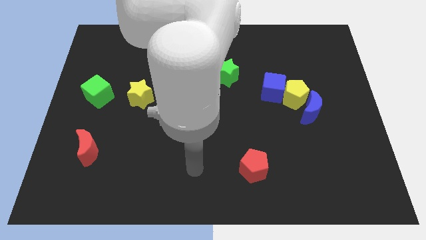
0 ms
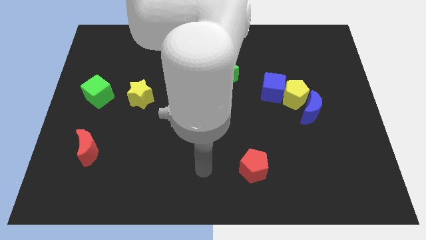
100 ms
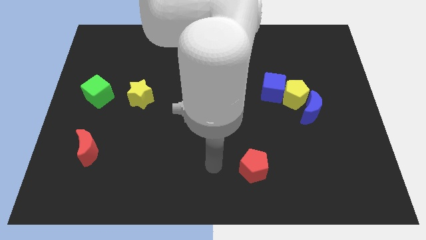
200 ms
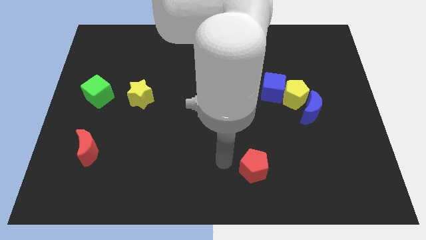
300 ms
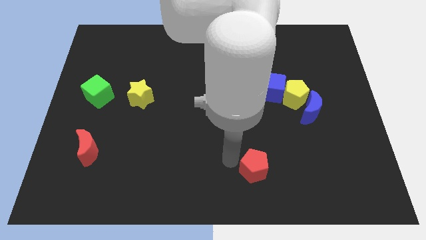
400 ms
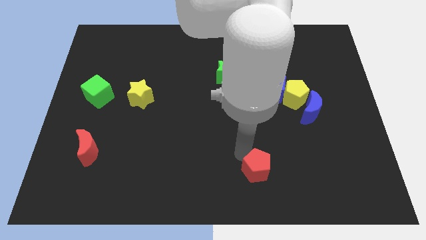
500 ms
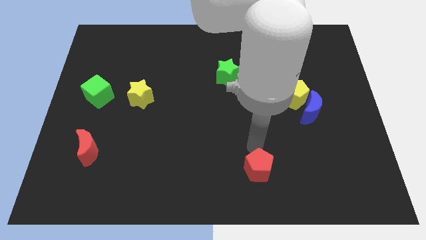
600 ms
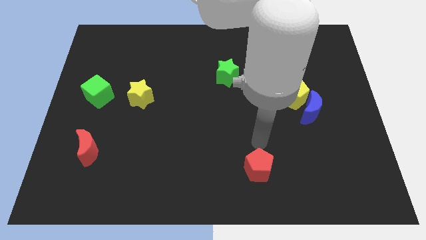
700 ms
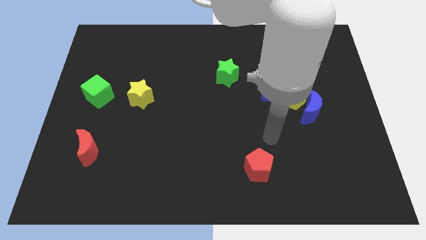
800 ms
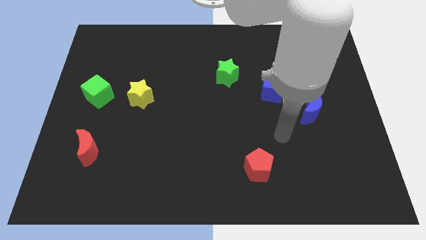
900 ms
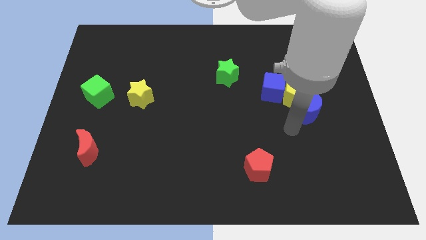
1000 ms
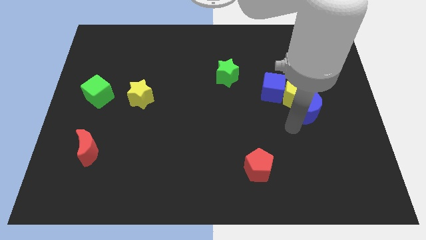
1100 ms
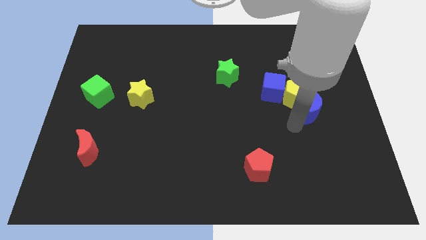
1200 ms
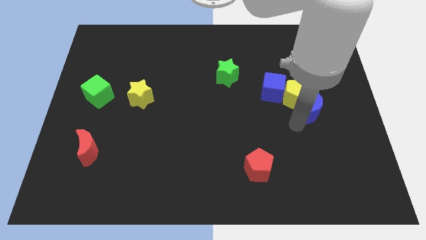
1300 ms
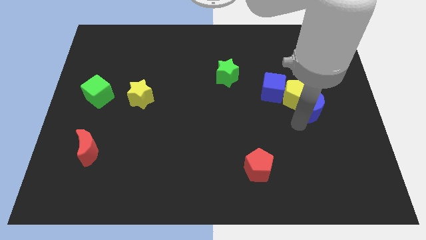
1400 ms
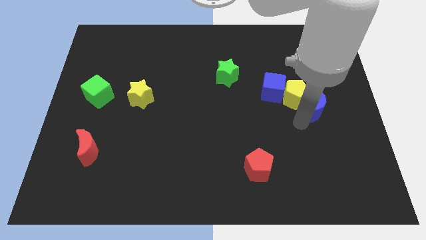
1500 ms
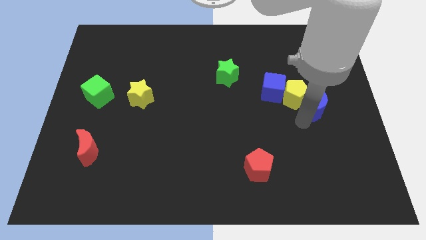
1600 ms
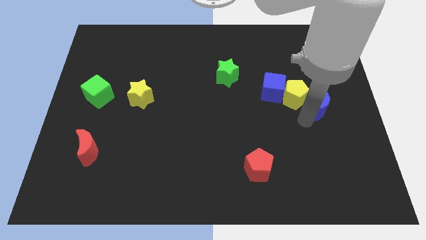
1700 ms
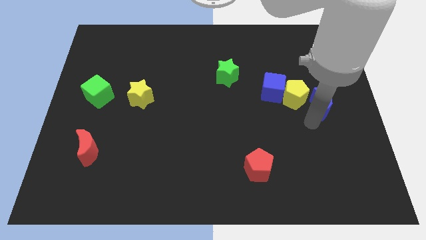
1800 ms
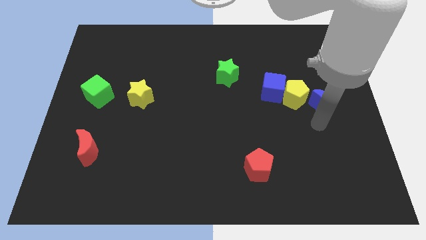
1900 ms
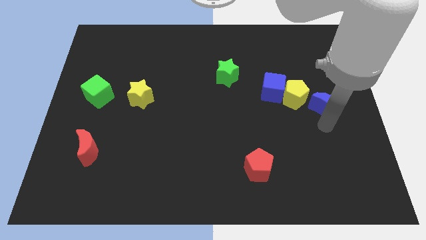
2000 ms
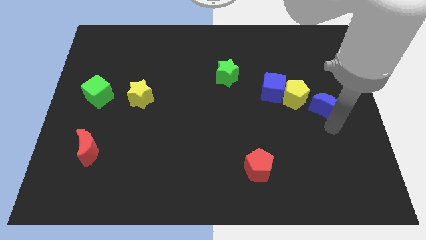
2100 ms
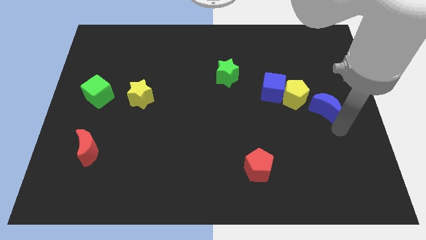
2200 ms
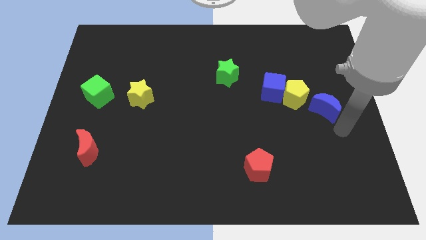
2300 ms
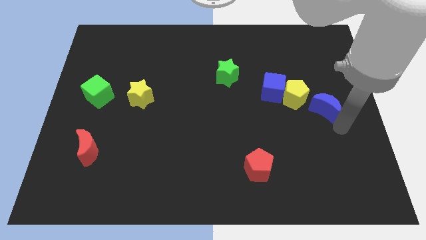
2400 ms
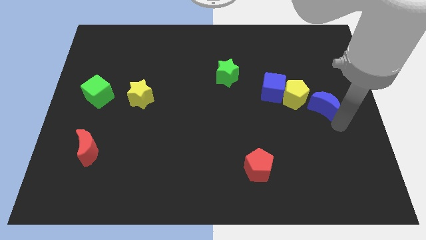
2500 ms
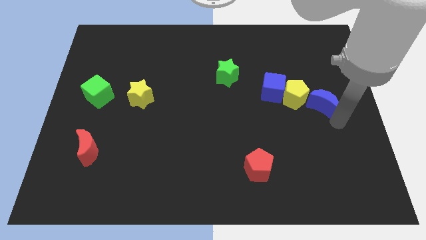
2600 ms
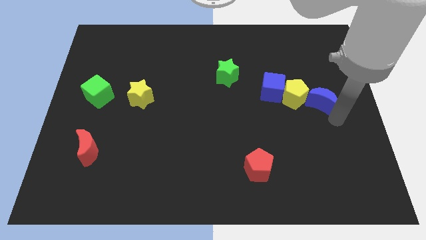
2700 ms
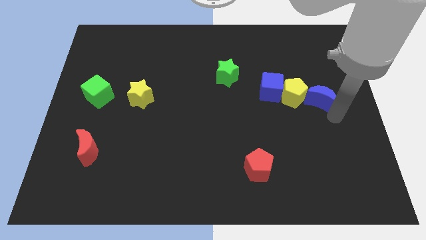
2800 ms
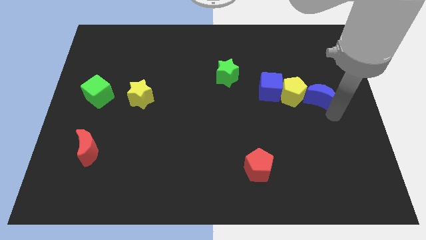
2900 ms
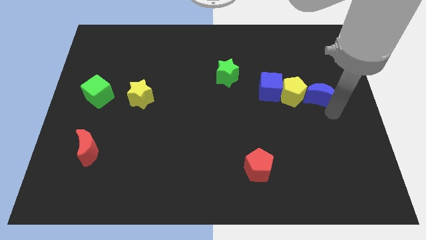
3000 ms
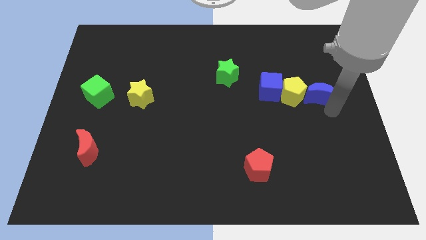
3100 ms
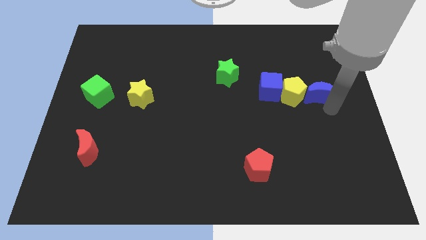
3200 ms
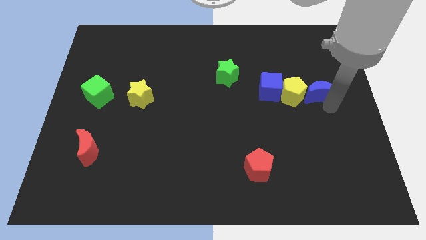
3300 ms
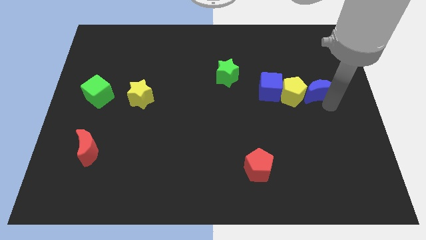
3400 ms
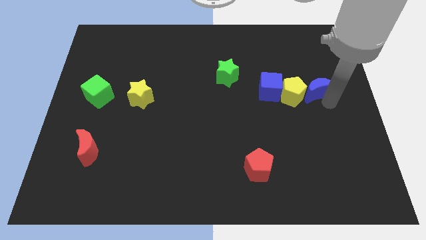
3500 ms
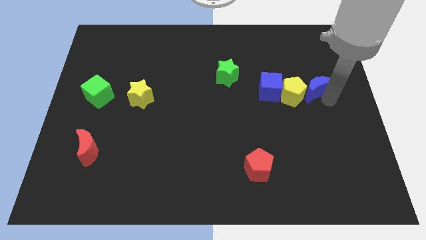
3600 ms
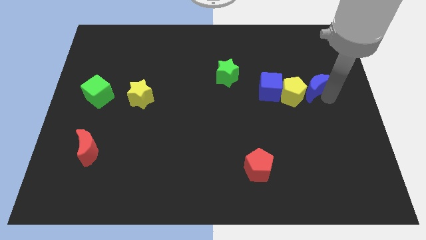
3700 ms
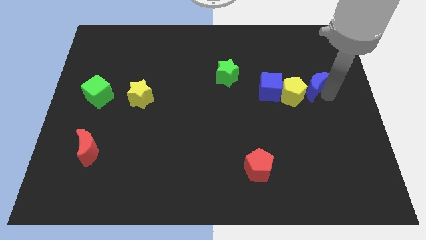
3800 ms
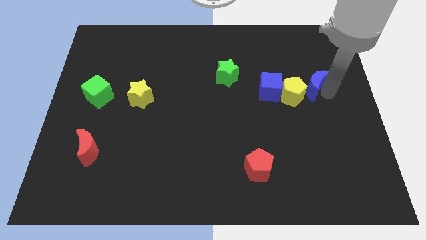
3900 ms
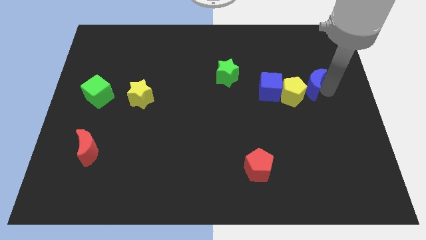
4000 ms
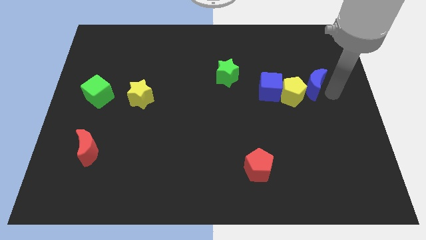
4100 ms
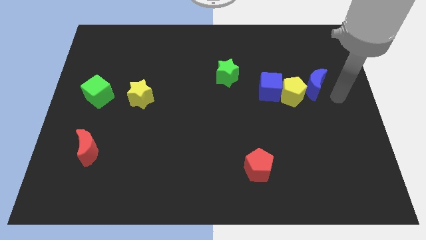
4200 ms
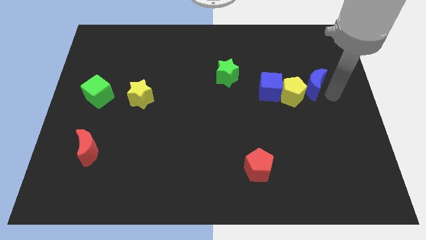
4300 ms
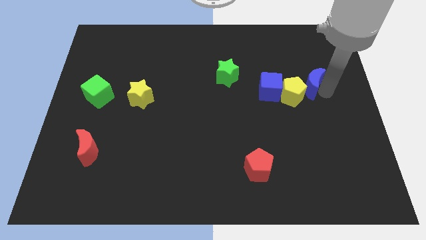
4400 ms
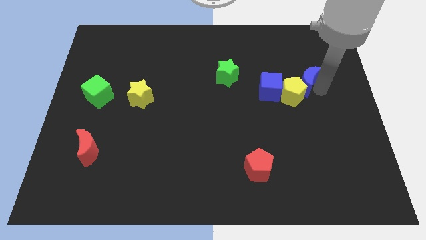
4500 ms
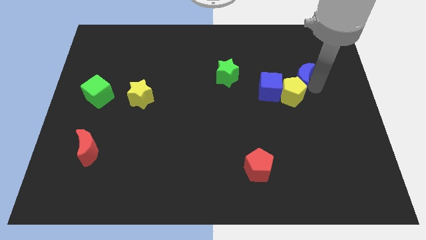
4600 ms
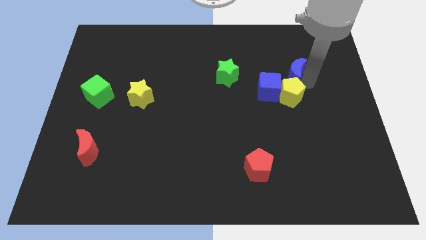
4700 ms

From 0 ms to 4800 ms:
slightly push the blue moon up and to the left diagonally

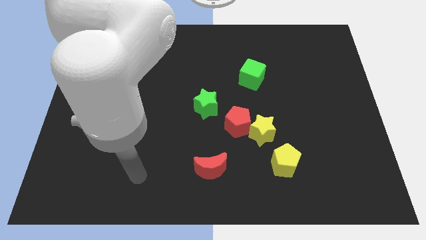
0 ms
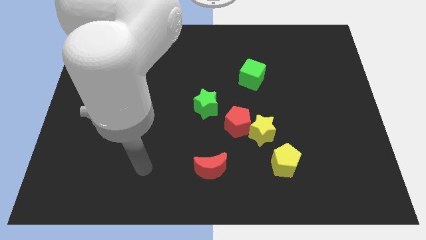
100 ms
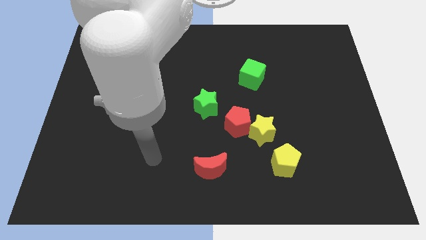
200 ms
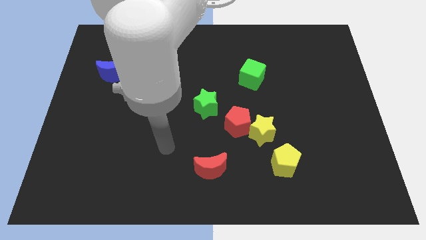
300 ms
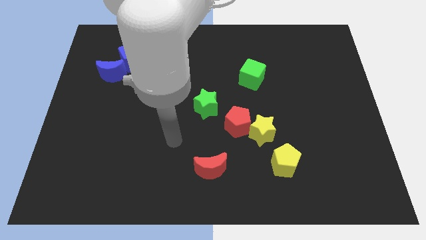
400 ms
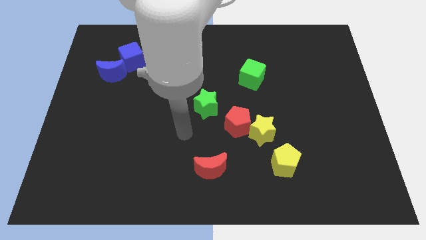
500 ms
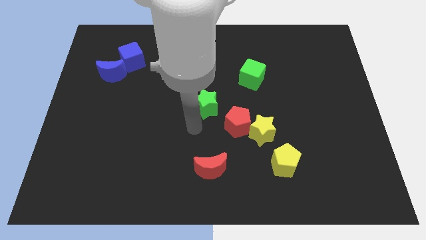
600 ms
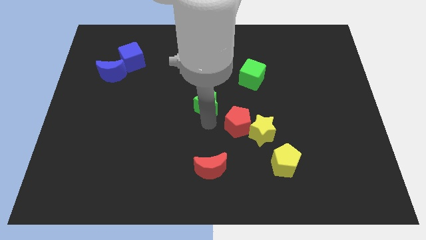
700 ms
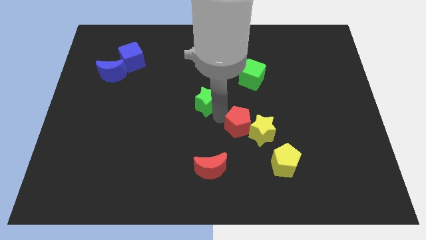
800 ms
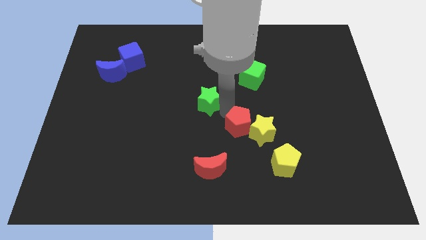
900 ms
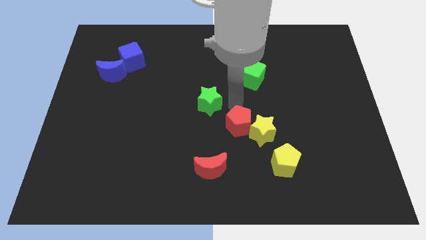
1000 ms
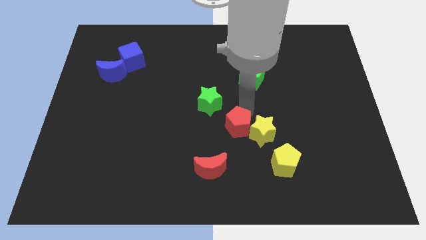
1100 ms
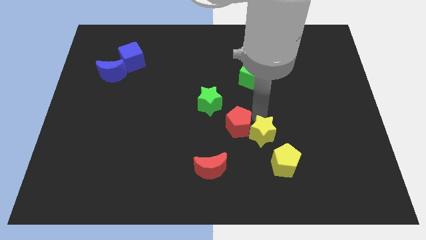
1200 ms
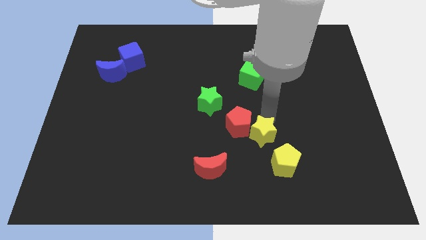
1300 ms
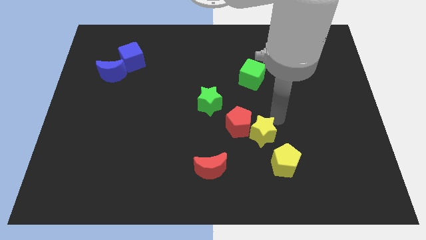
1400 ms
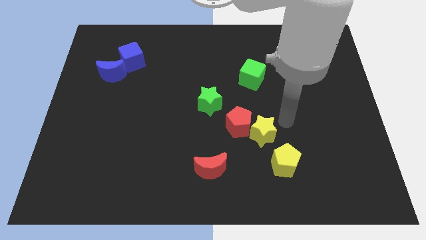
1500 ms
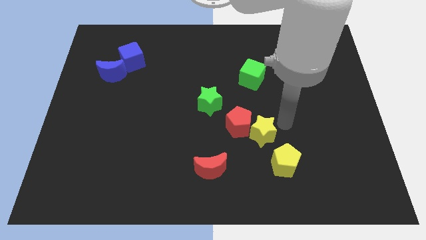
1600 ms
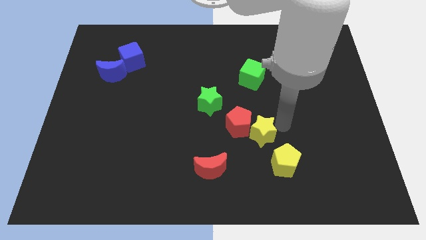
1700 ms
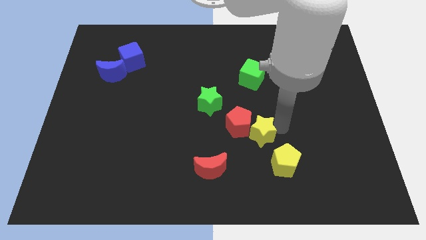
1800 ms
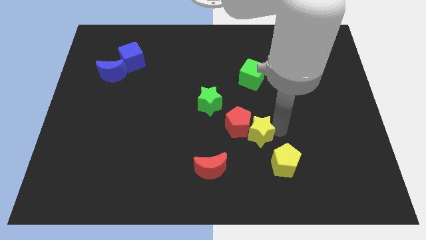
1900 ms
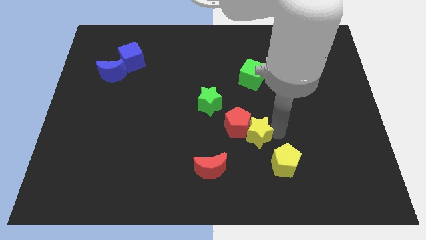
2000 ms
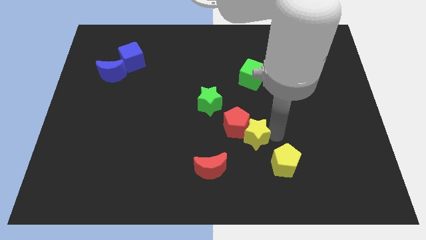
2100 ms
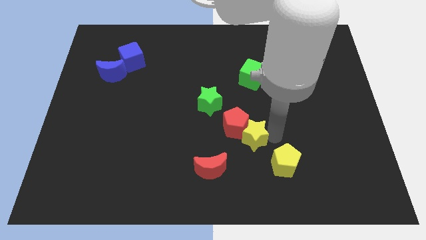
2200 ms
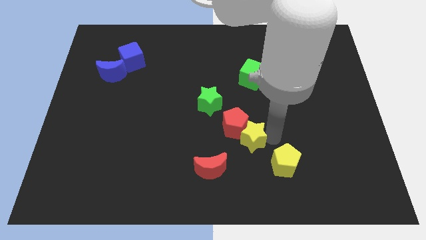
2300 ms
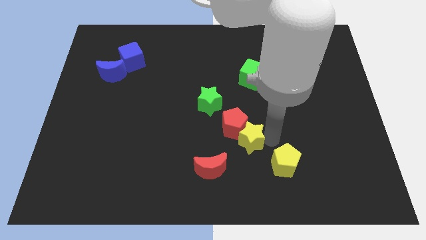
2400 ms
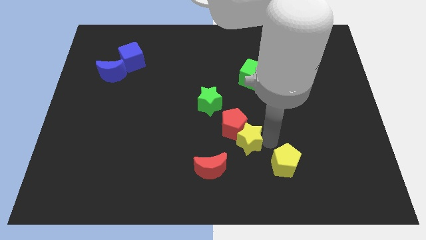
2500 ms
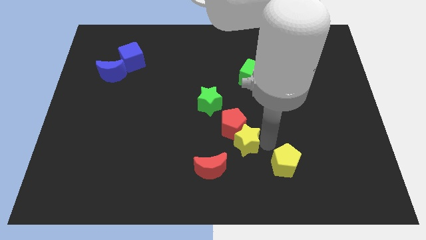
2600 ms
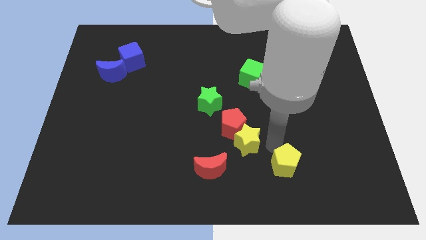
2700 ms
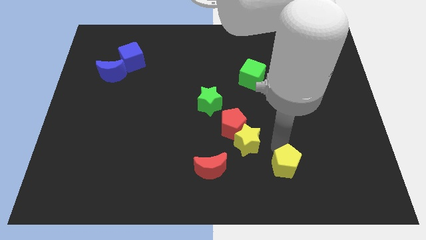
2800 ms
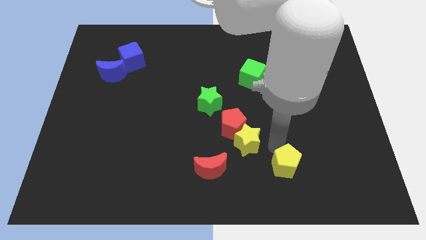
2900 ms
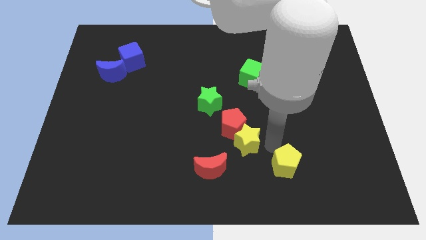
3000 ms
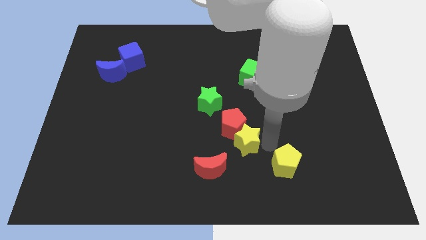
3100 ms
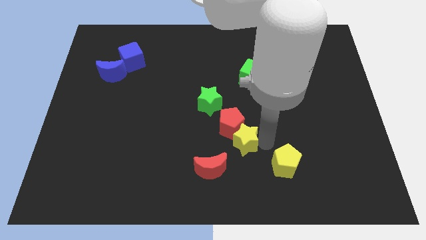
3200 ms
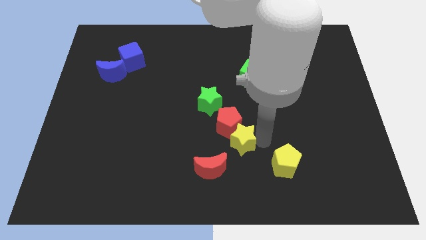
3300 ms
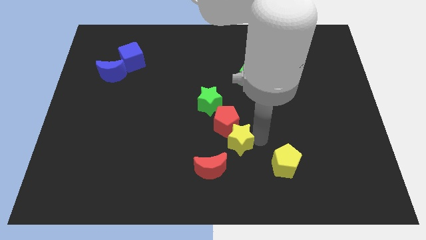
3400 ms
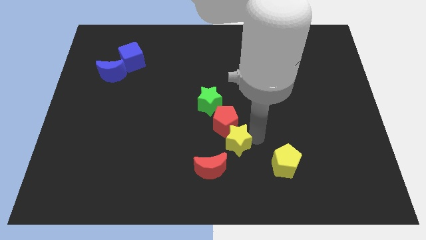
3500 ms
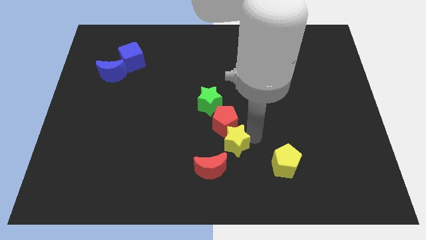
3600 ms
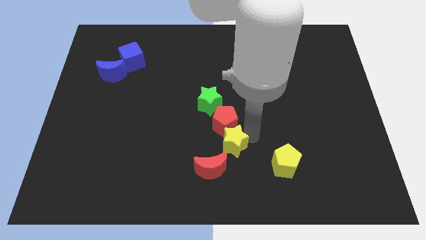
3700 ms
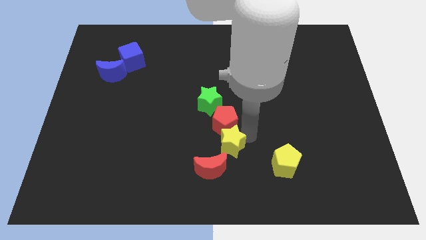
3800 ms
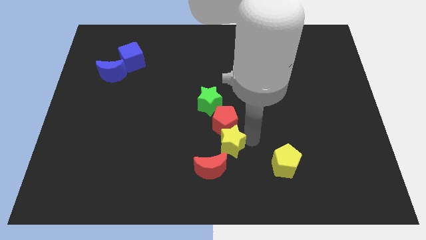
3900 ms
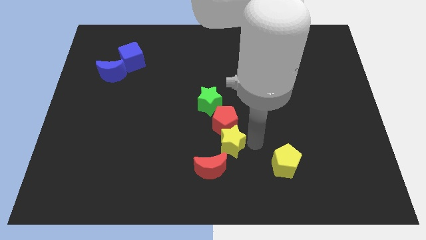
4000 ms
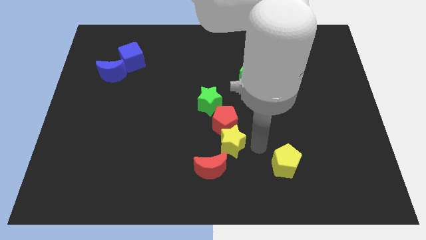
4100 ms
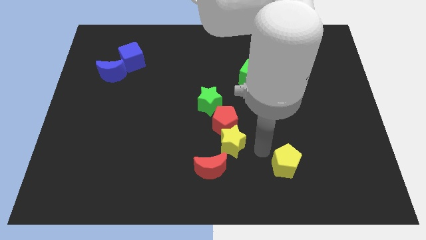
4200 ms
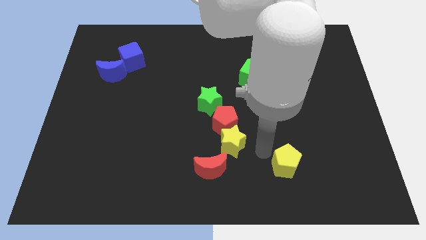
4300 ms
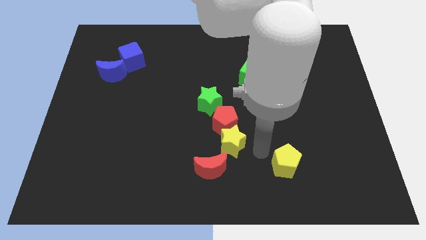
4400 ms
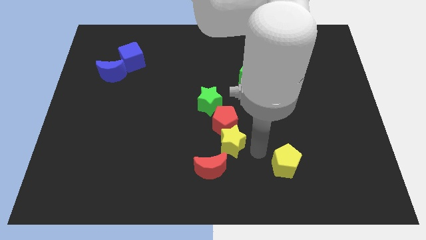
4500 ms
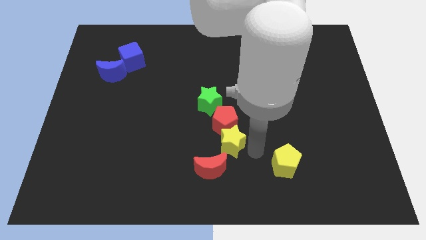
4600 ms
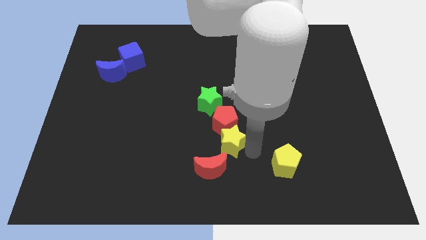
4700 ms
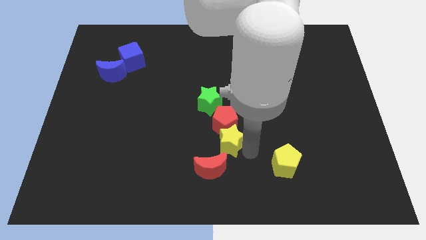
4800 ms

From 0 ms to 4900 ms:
push the yellow star a little bit to the left
